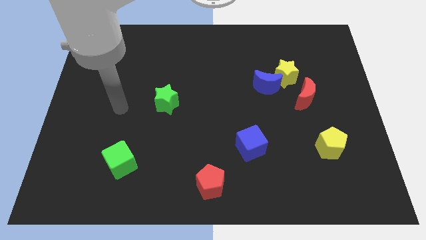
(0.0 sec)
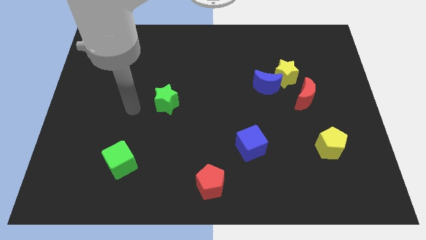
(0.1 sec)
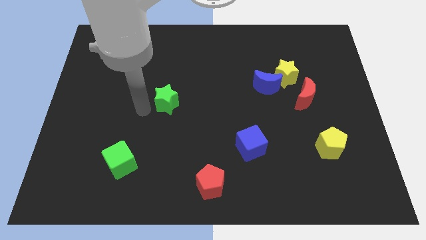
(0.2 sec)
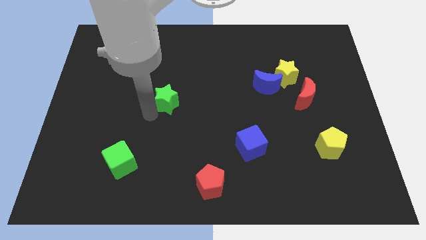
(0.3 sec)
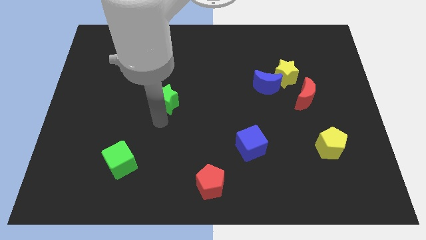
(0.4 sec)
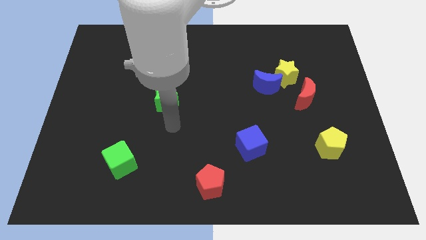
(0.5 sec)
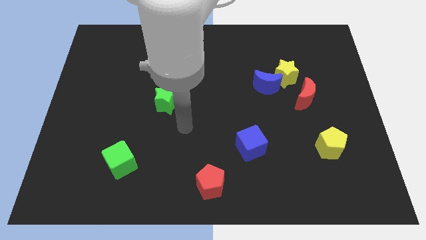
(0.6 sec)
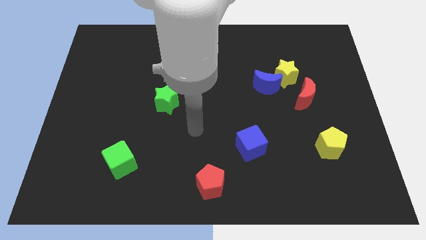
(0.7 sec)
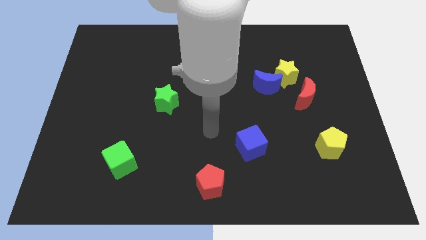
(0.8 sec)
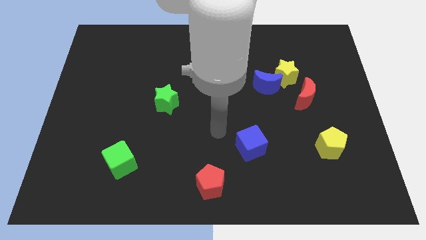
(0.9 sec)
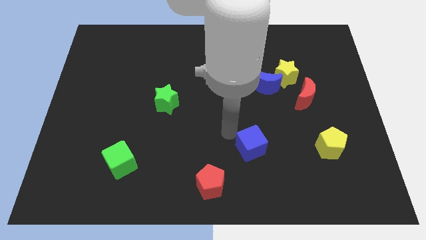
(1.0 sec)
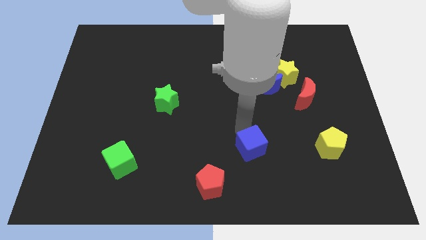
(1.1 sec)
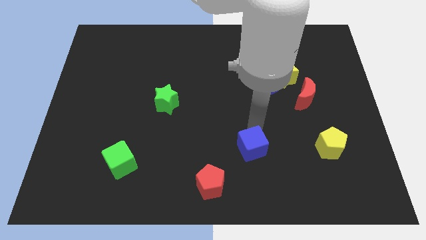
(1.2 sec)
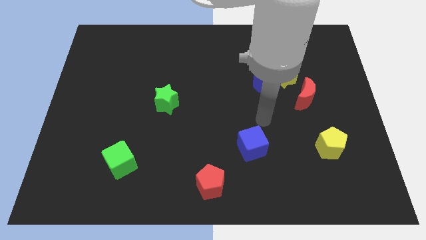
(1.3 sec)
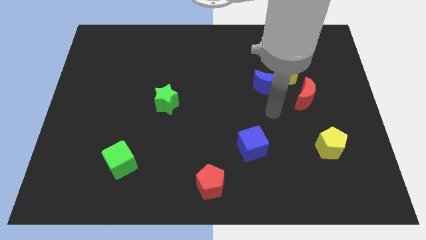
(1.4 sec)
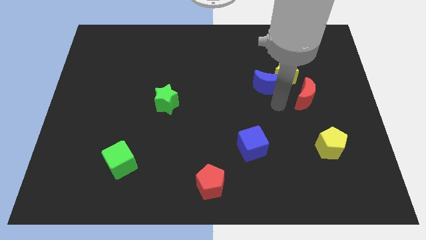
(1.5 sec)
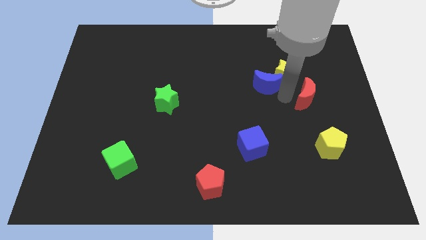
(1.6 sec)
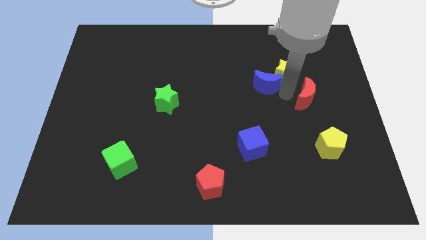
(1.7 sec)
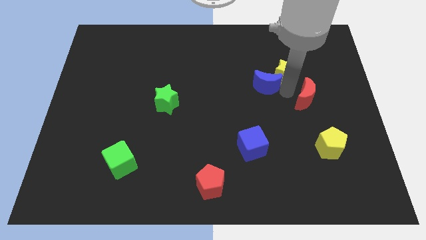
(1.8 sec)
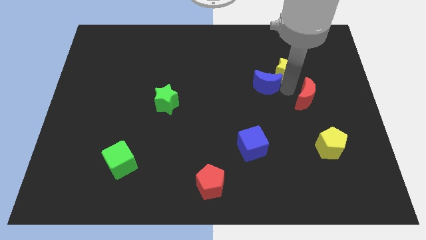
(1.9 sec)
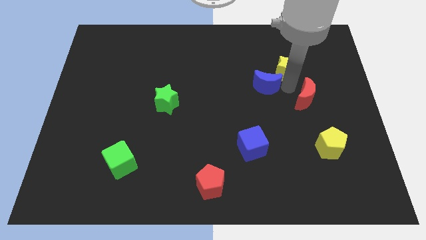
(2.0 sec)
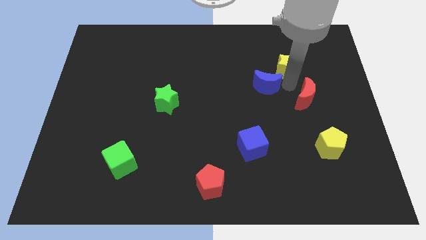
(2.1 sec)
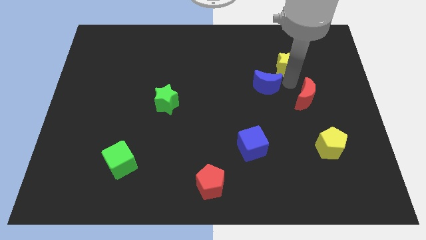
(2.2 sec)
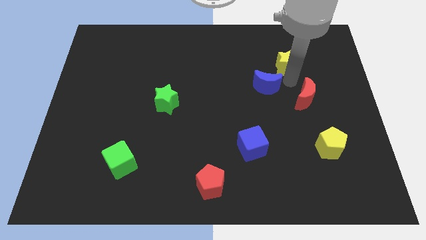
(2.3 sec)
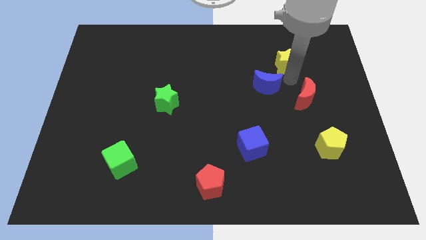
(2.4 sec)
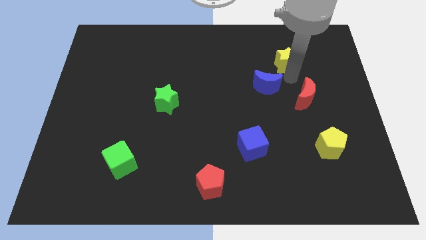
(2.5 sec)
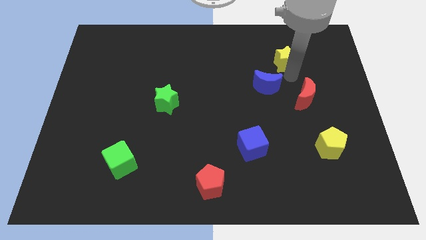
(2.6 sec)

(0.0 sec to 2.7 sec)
separate the yellow star from the blue moon and red moon

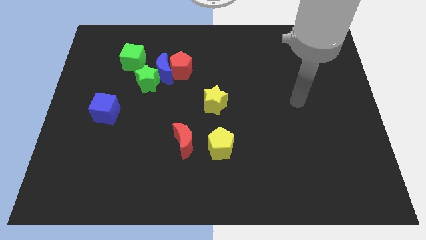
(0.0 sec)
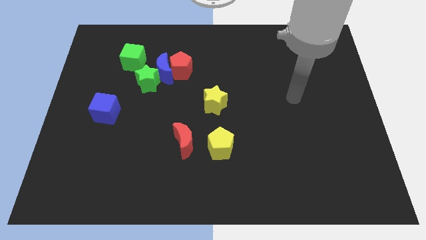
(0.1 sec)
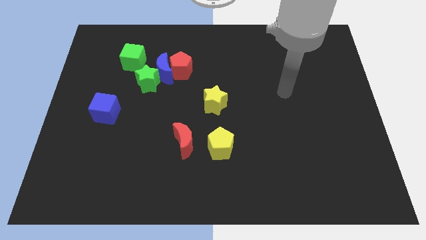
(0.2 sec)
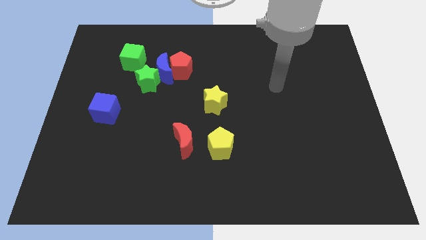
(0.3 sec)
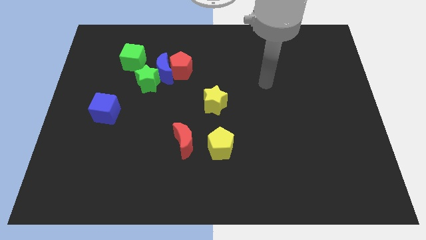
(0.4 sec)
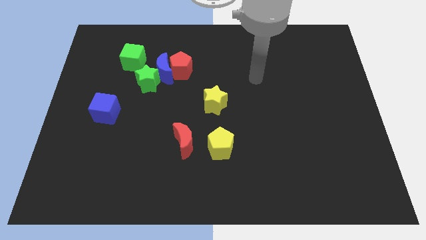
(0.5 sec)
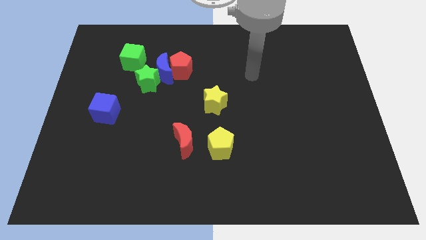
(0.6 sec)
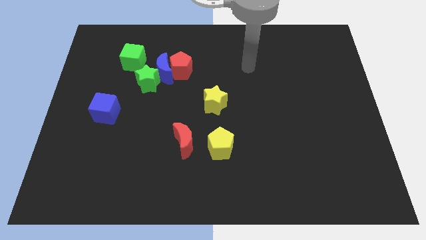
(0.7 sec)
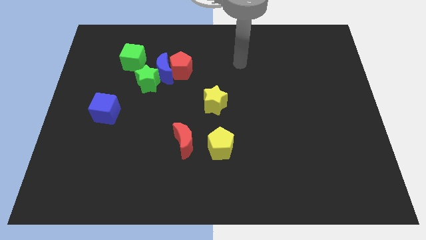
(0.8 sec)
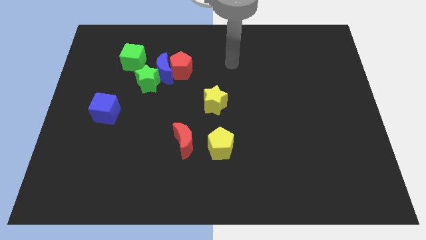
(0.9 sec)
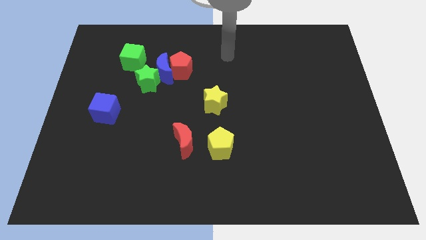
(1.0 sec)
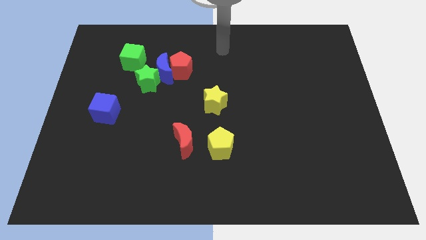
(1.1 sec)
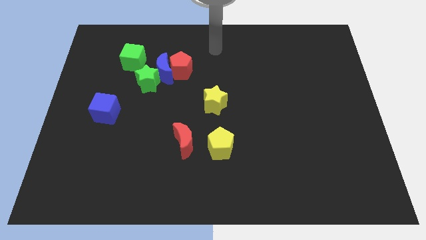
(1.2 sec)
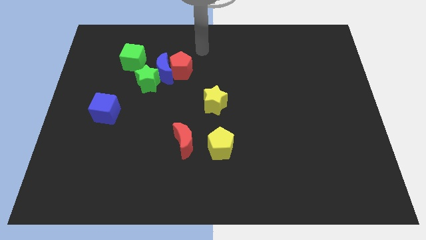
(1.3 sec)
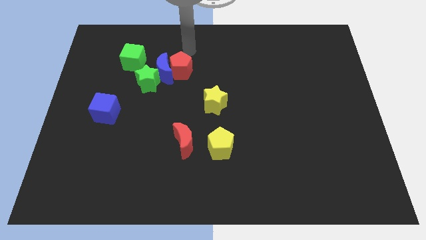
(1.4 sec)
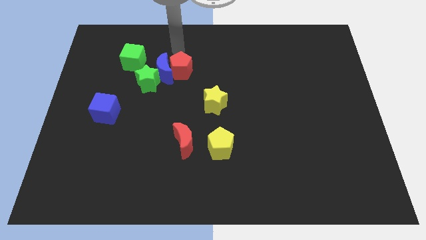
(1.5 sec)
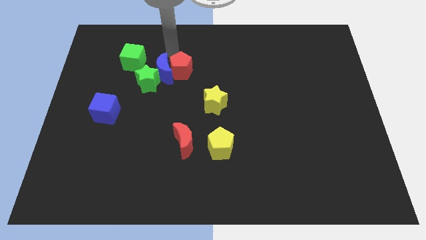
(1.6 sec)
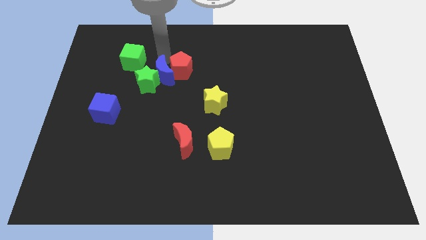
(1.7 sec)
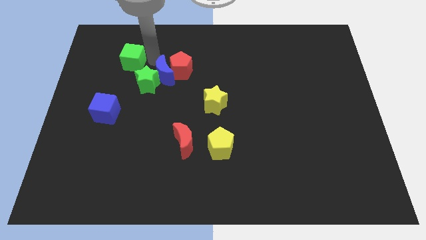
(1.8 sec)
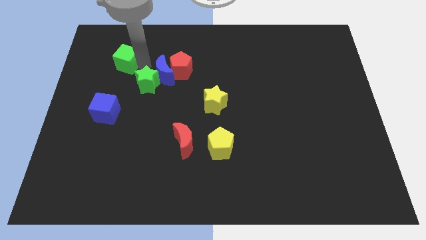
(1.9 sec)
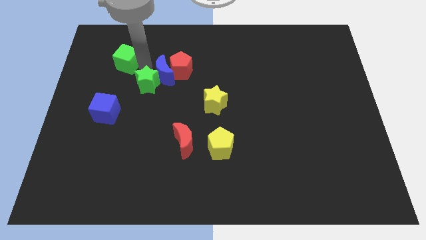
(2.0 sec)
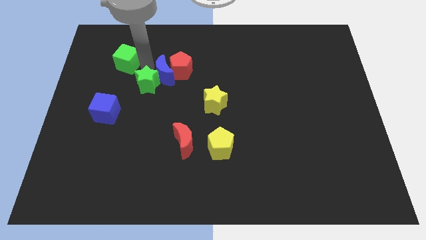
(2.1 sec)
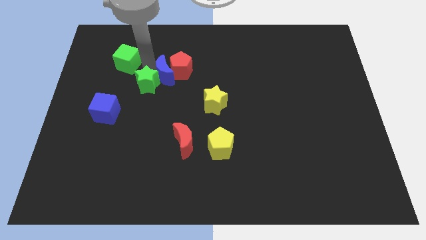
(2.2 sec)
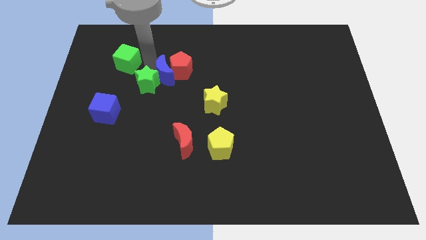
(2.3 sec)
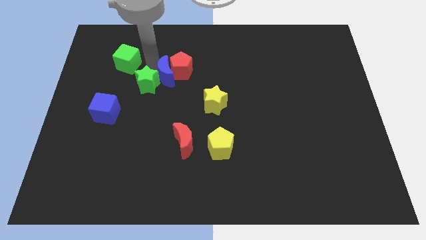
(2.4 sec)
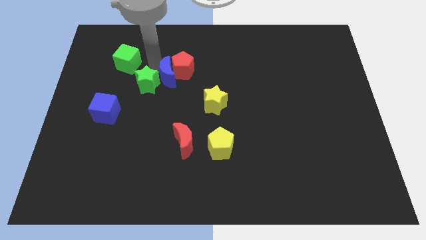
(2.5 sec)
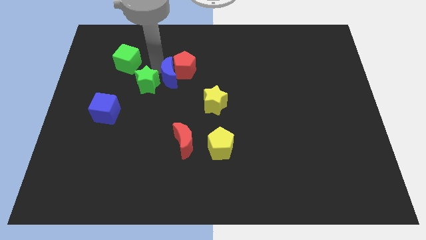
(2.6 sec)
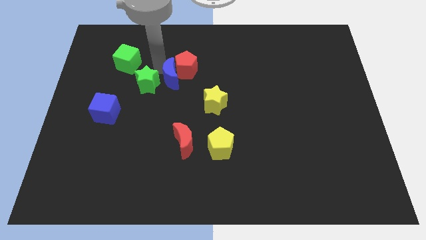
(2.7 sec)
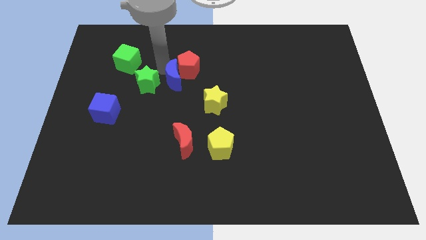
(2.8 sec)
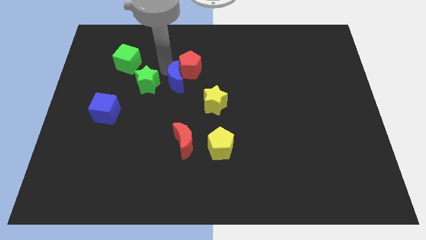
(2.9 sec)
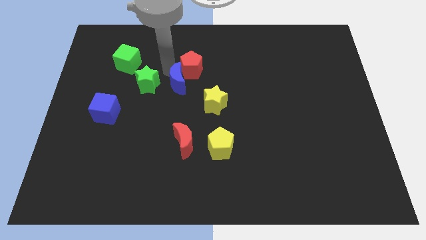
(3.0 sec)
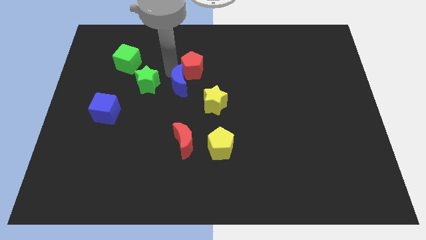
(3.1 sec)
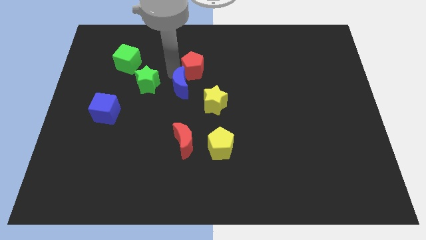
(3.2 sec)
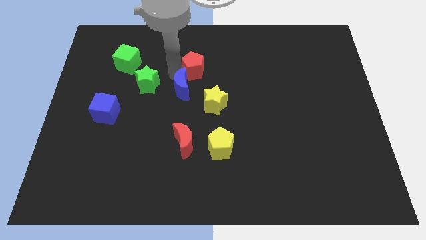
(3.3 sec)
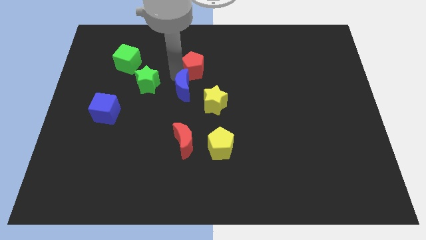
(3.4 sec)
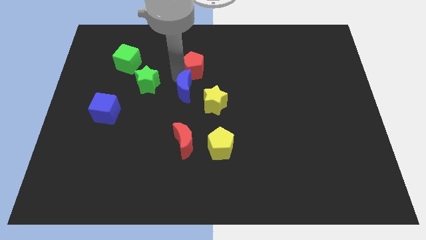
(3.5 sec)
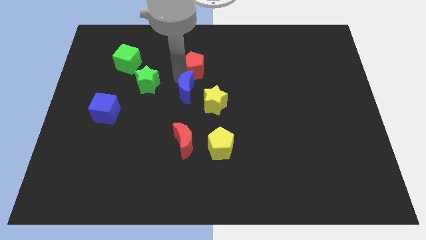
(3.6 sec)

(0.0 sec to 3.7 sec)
move the blue moon away from the group of blocks

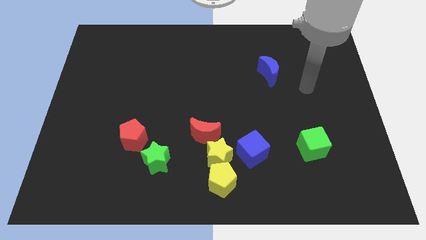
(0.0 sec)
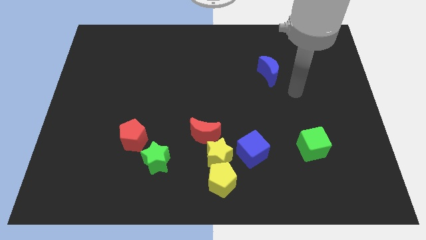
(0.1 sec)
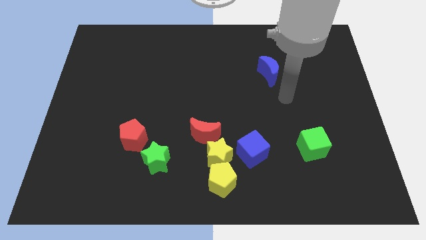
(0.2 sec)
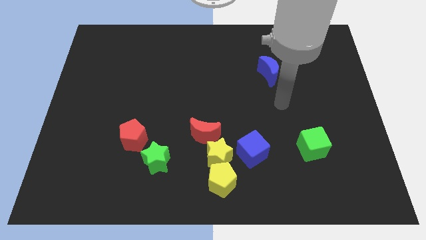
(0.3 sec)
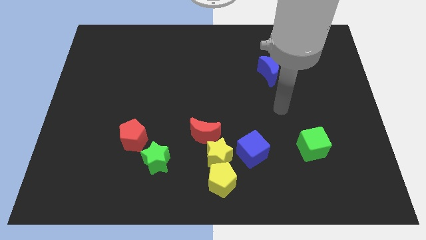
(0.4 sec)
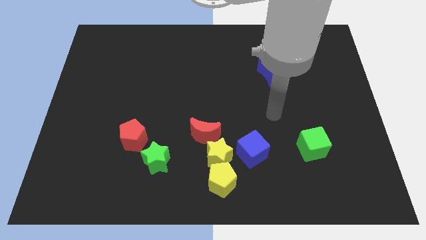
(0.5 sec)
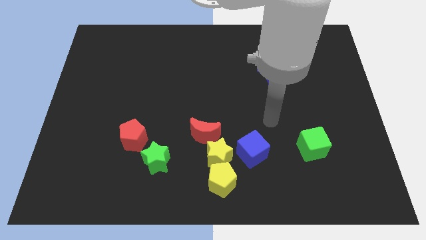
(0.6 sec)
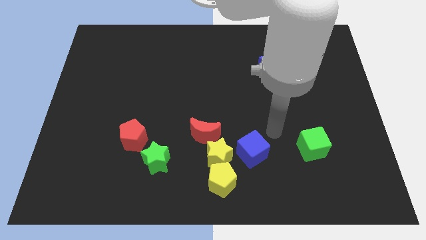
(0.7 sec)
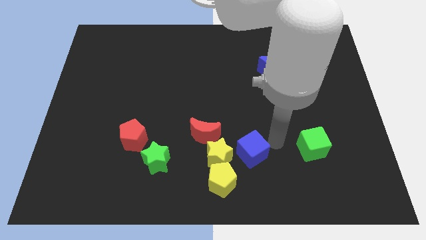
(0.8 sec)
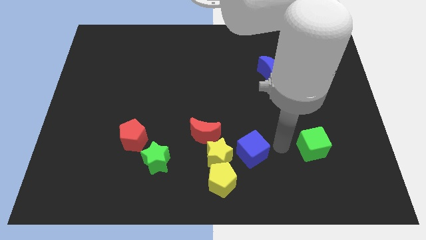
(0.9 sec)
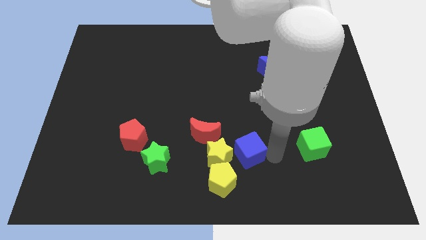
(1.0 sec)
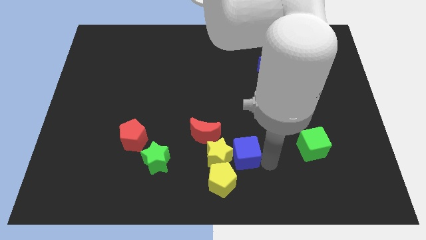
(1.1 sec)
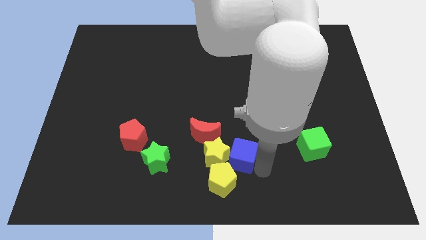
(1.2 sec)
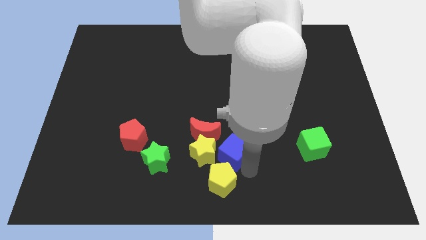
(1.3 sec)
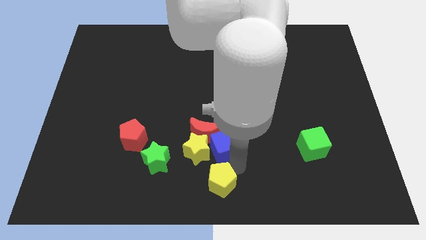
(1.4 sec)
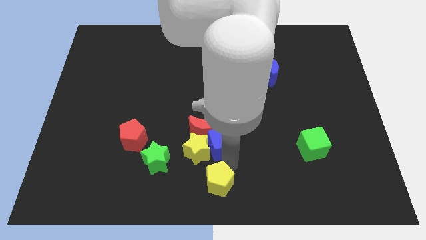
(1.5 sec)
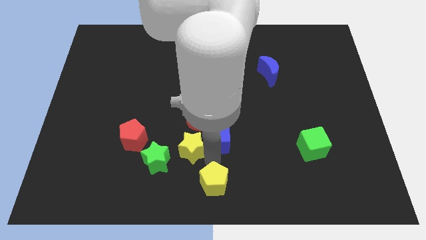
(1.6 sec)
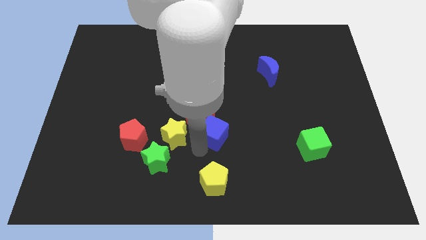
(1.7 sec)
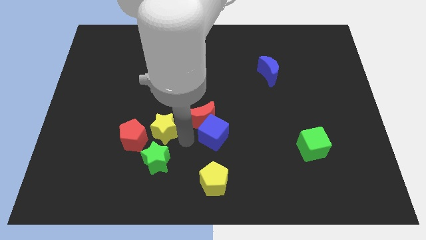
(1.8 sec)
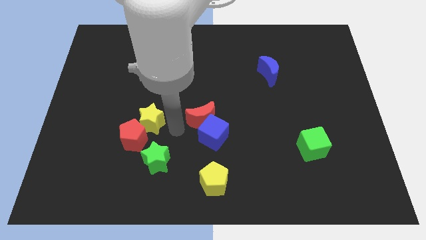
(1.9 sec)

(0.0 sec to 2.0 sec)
separate the red moon from the yellow star

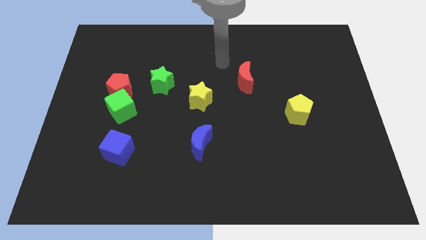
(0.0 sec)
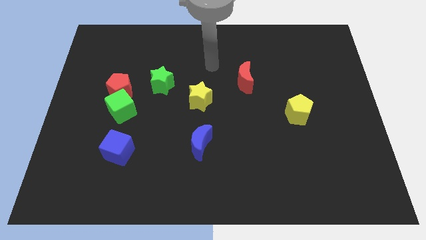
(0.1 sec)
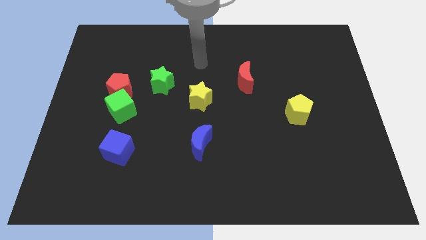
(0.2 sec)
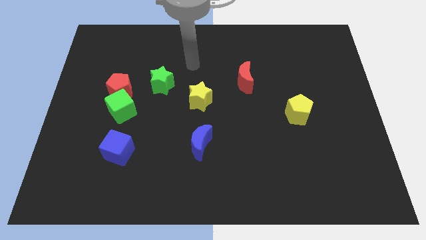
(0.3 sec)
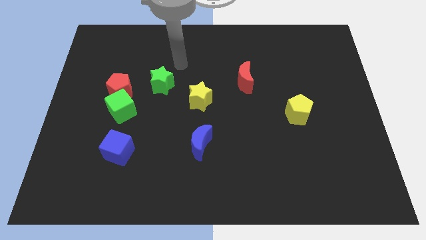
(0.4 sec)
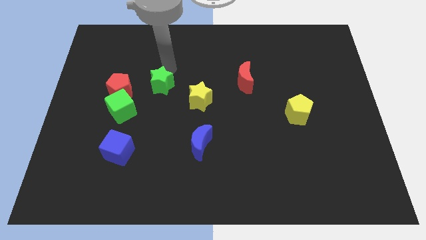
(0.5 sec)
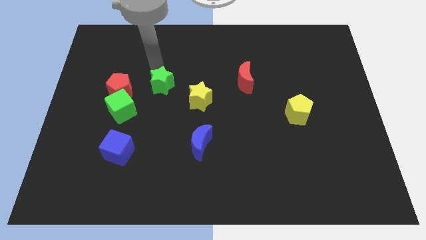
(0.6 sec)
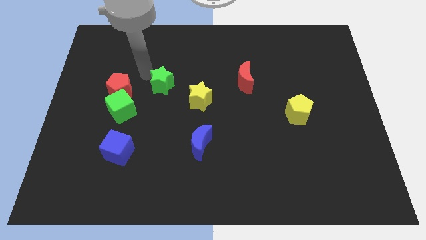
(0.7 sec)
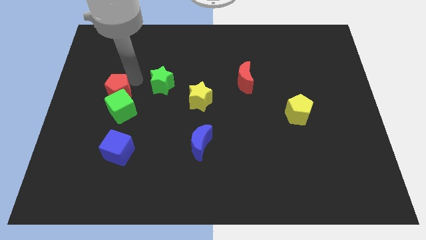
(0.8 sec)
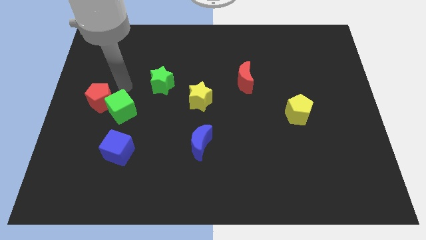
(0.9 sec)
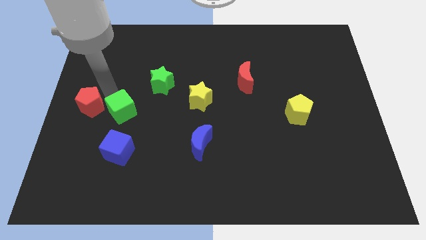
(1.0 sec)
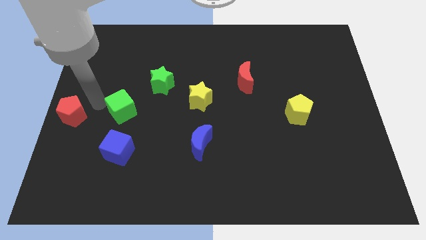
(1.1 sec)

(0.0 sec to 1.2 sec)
move the green cube away from the red pentagon
